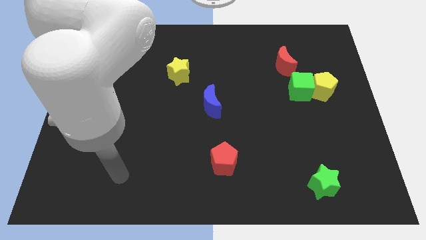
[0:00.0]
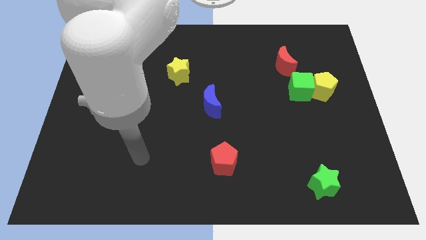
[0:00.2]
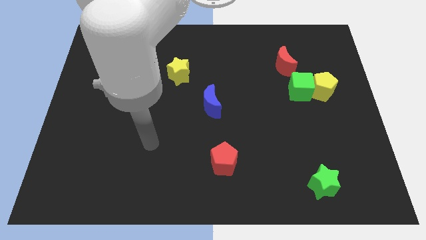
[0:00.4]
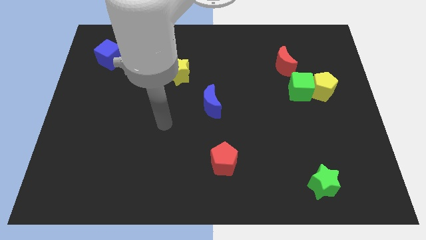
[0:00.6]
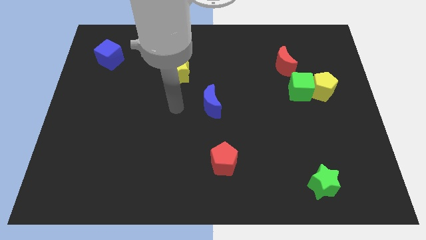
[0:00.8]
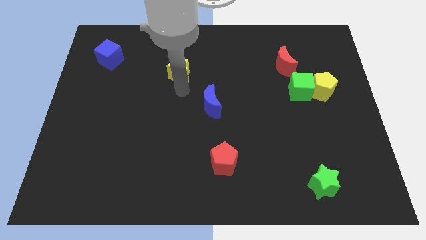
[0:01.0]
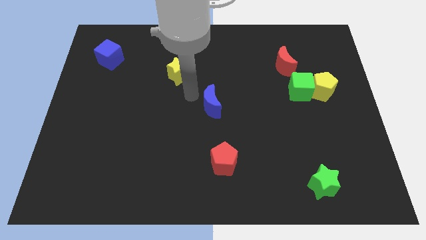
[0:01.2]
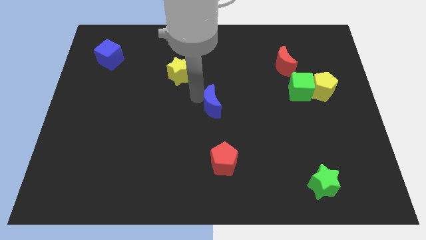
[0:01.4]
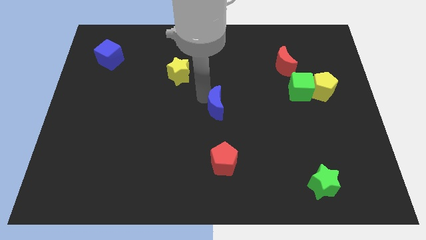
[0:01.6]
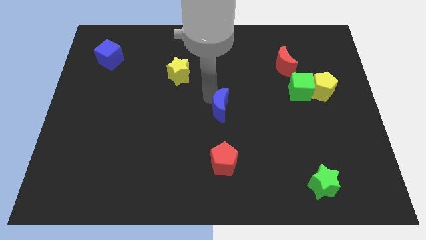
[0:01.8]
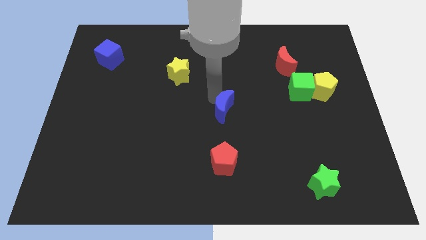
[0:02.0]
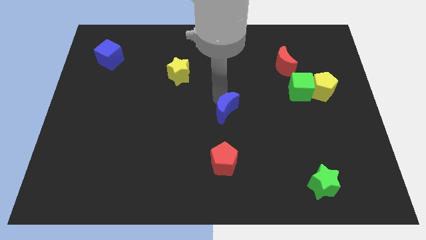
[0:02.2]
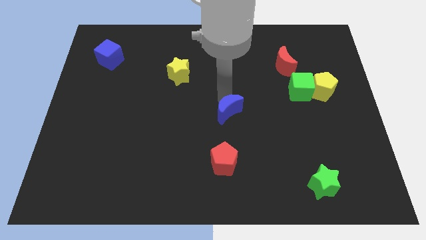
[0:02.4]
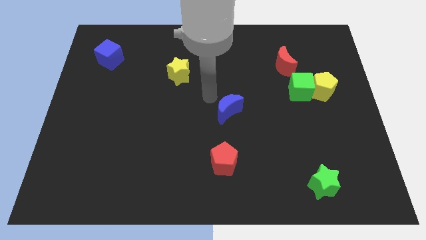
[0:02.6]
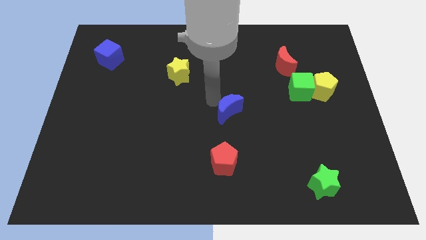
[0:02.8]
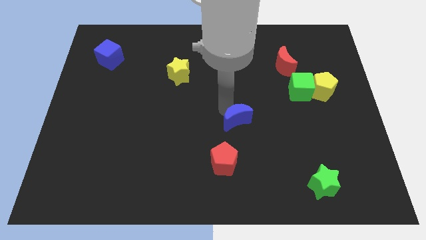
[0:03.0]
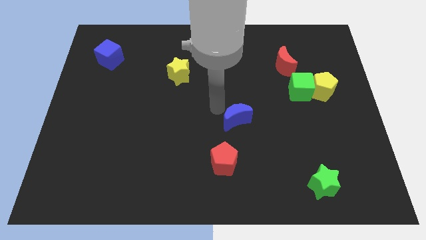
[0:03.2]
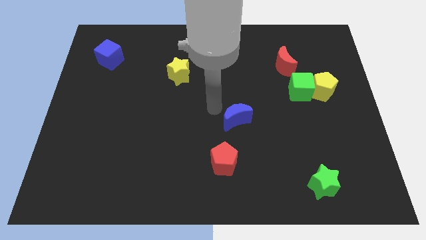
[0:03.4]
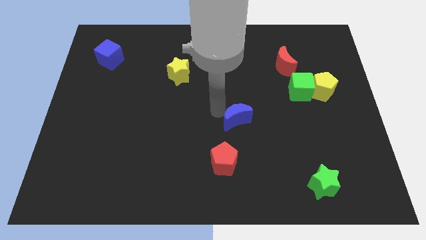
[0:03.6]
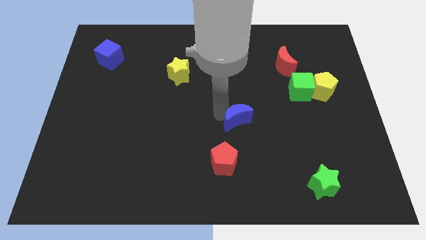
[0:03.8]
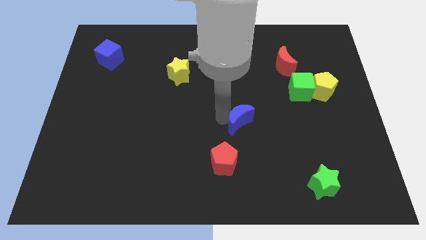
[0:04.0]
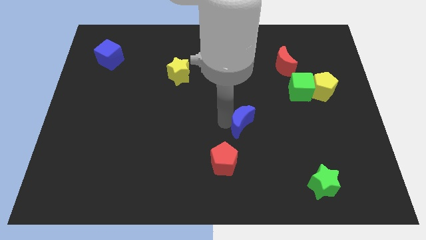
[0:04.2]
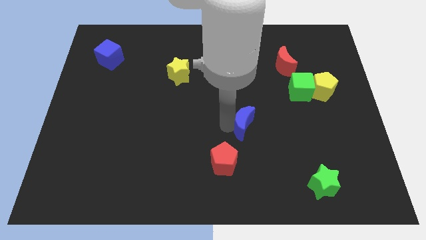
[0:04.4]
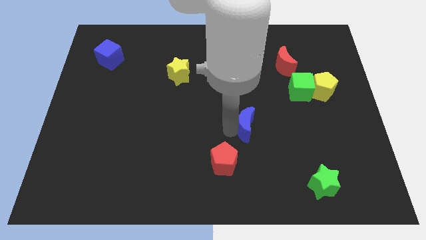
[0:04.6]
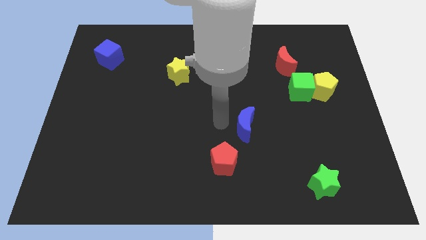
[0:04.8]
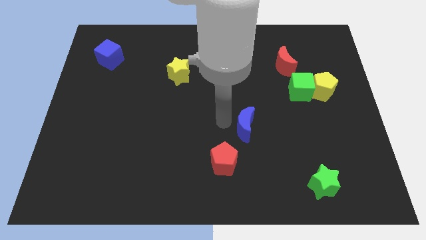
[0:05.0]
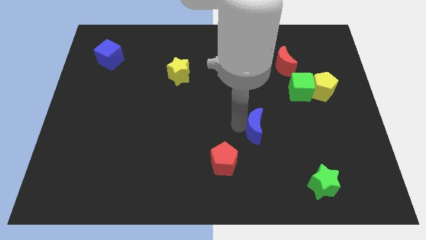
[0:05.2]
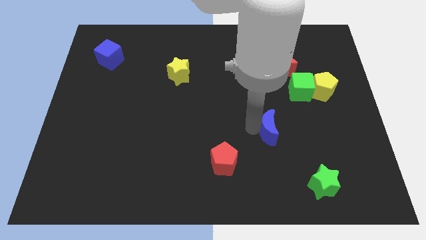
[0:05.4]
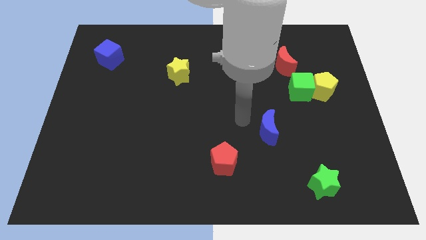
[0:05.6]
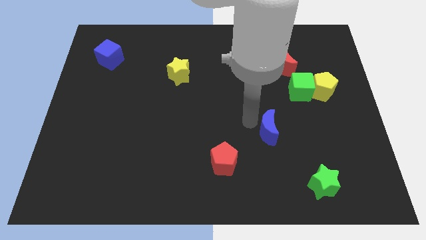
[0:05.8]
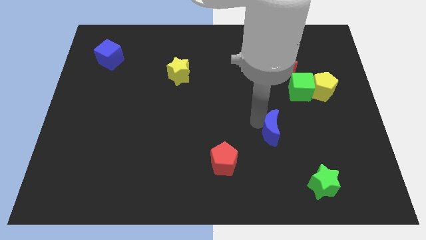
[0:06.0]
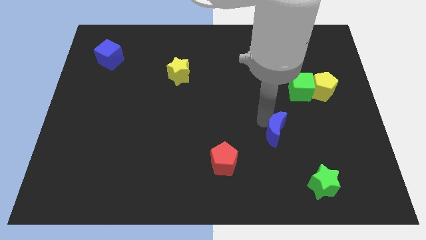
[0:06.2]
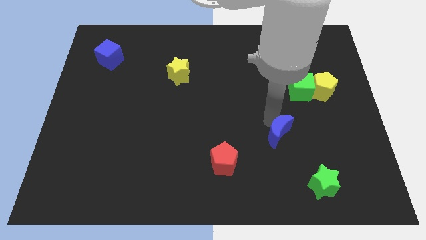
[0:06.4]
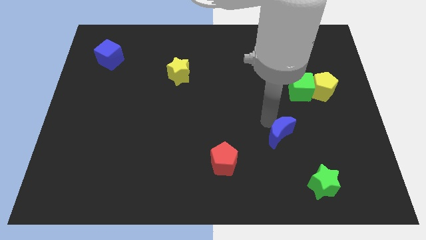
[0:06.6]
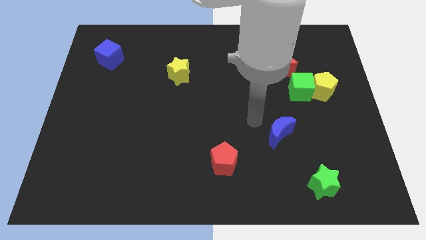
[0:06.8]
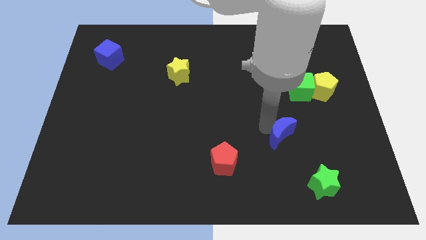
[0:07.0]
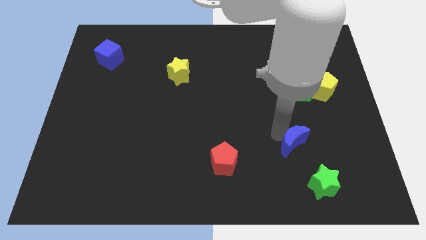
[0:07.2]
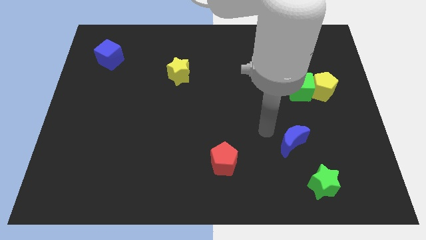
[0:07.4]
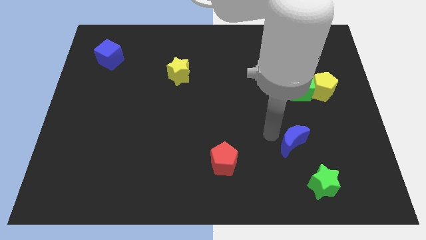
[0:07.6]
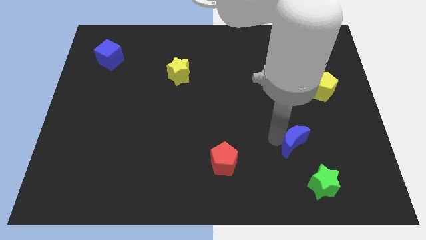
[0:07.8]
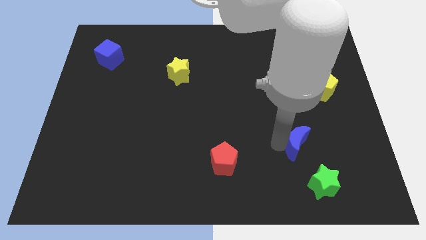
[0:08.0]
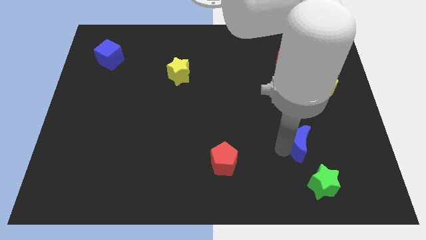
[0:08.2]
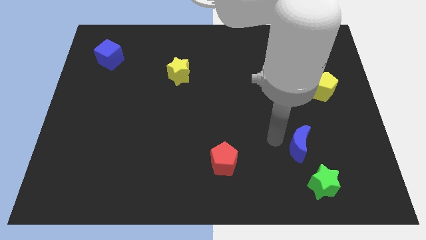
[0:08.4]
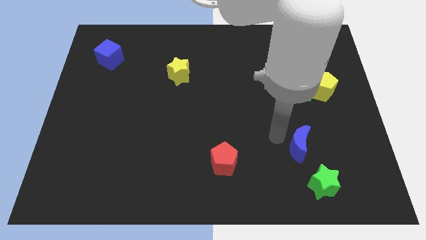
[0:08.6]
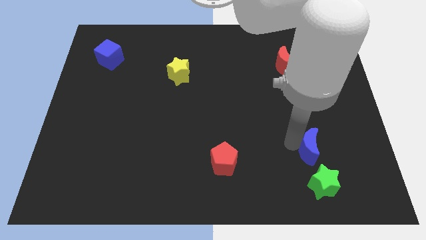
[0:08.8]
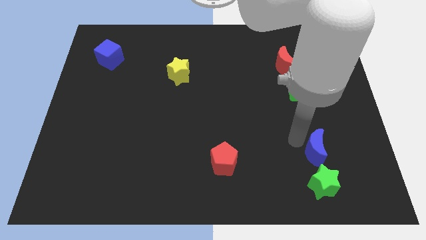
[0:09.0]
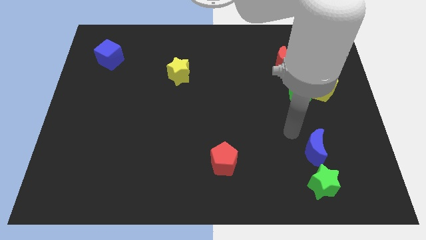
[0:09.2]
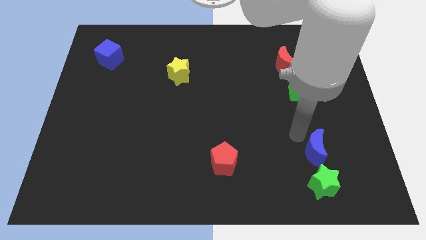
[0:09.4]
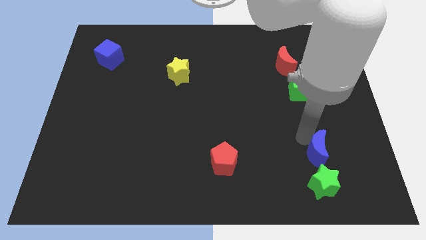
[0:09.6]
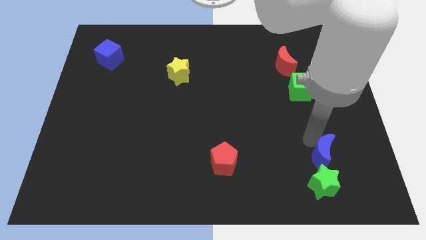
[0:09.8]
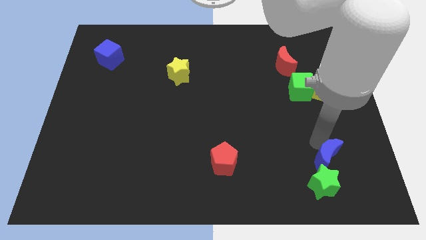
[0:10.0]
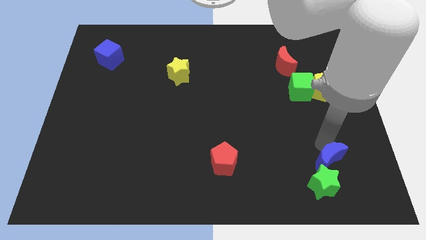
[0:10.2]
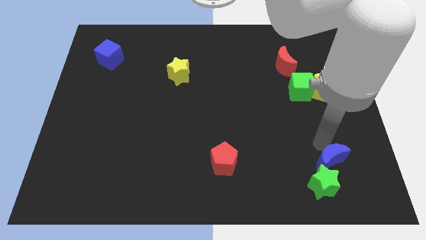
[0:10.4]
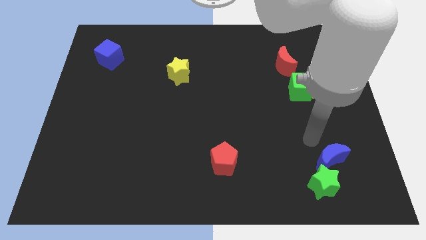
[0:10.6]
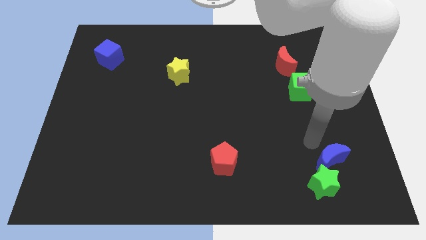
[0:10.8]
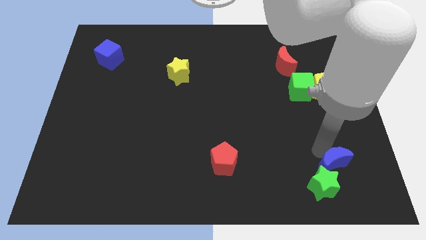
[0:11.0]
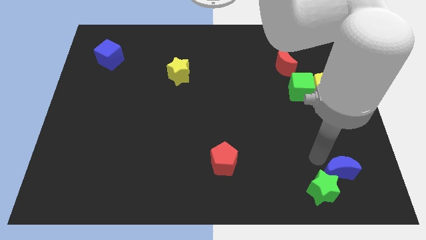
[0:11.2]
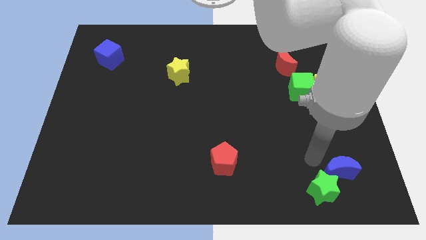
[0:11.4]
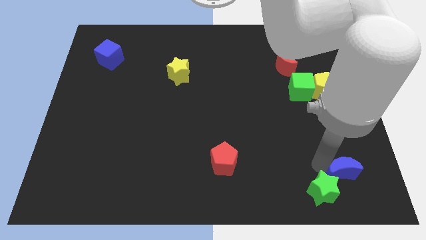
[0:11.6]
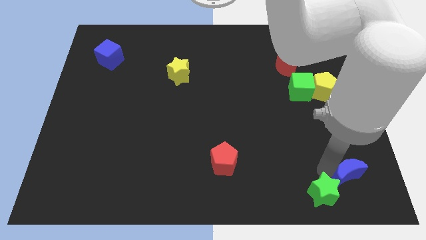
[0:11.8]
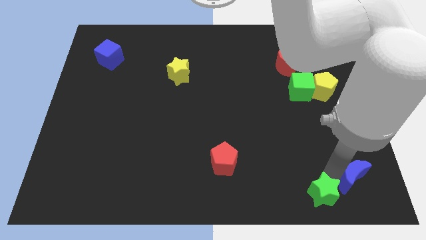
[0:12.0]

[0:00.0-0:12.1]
push the blue moon to the bottom right

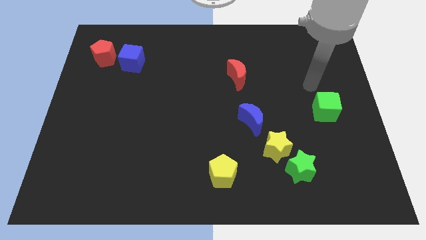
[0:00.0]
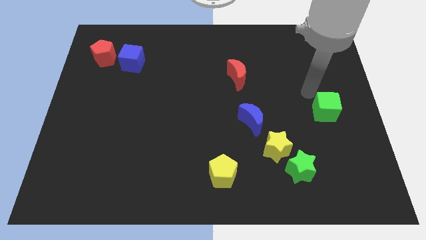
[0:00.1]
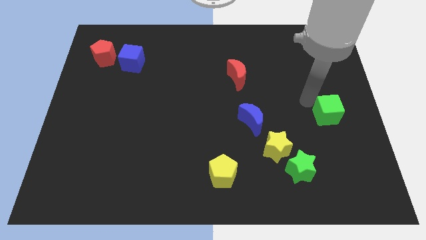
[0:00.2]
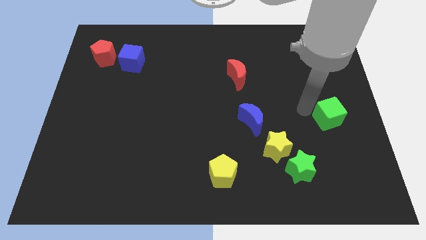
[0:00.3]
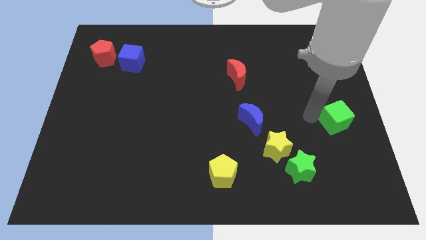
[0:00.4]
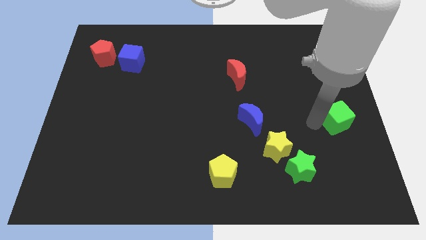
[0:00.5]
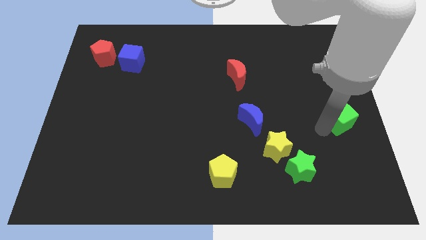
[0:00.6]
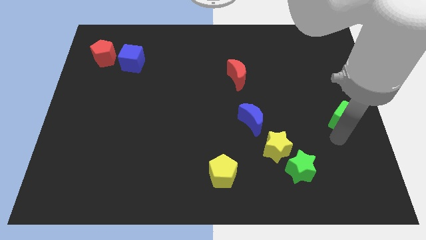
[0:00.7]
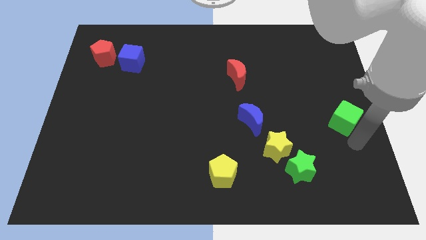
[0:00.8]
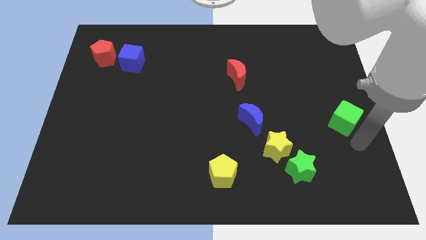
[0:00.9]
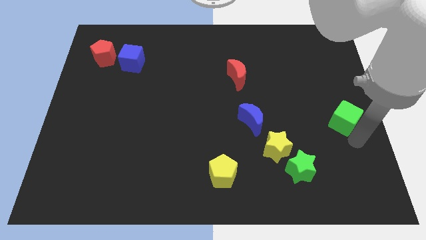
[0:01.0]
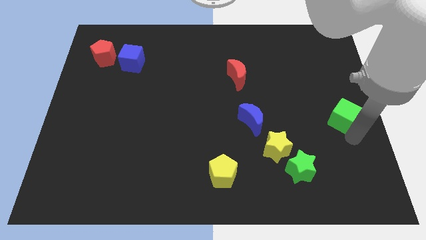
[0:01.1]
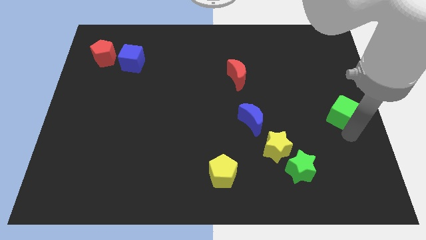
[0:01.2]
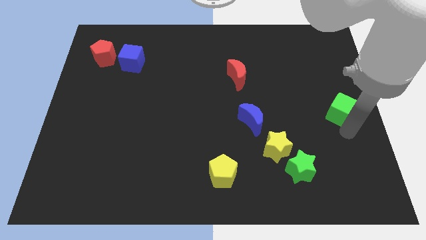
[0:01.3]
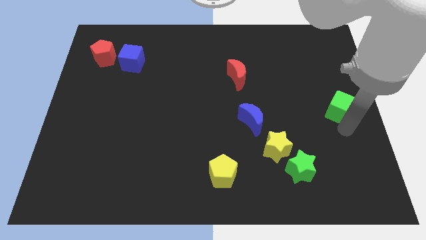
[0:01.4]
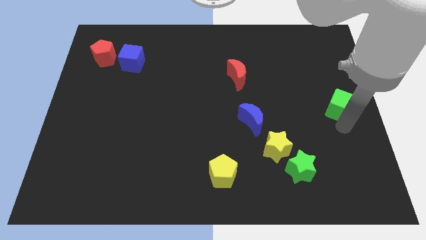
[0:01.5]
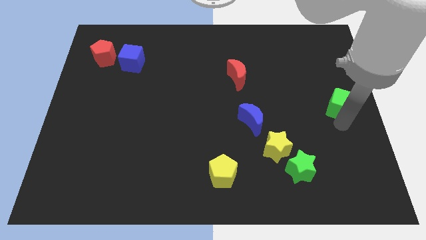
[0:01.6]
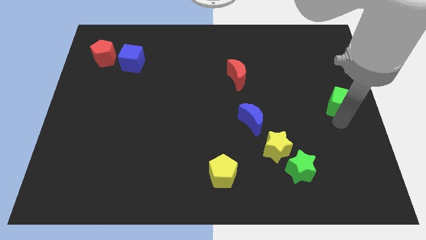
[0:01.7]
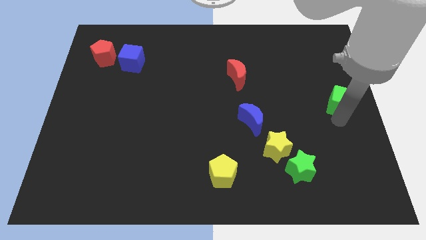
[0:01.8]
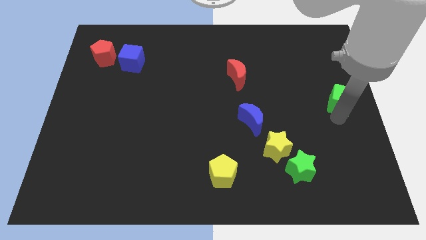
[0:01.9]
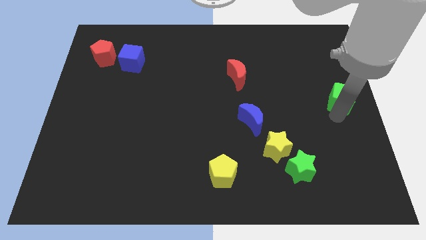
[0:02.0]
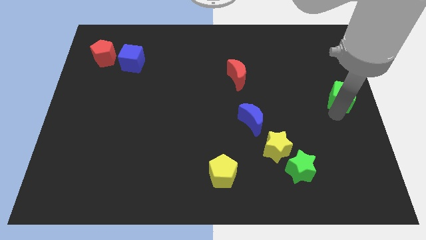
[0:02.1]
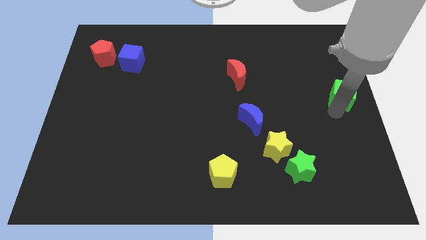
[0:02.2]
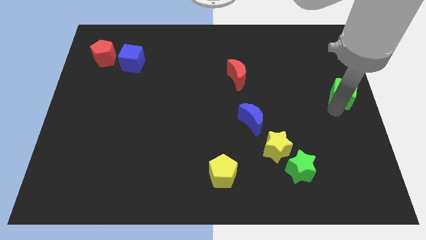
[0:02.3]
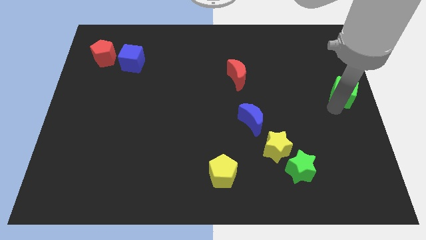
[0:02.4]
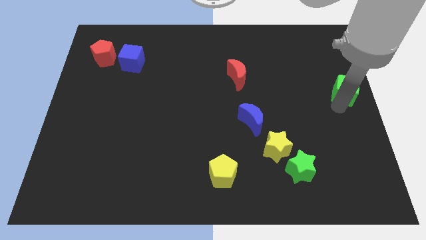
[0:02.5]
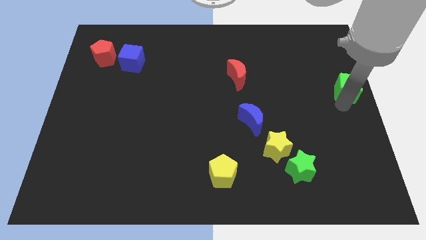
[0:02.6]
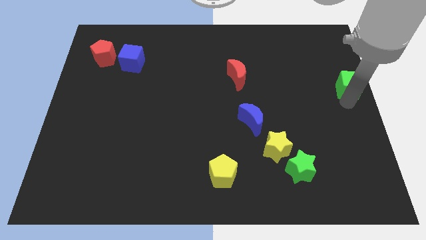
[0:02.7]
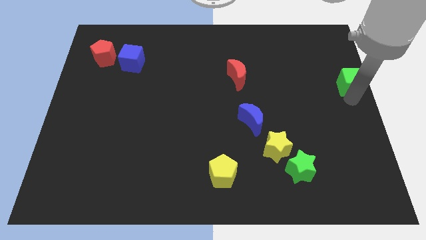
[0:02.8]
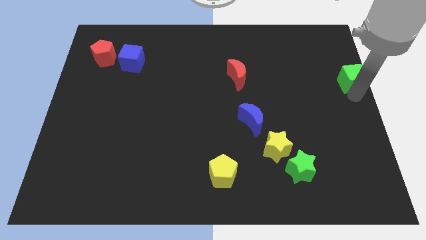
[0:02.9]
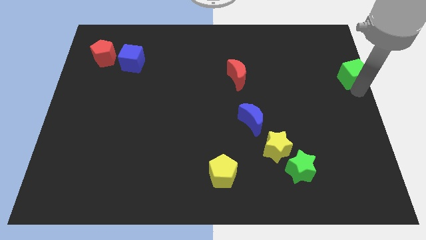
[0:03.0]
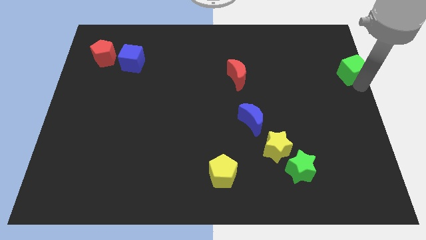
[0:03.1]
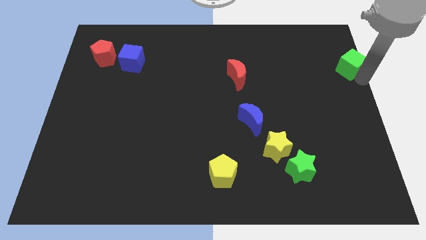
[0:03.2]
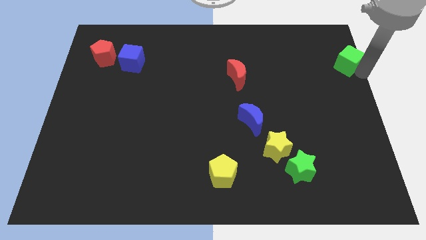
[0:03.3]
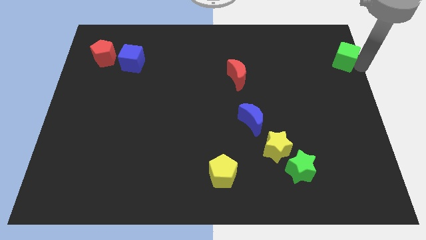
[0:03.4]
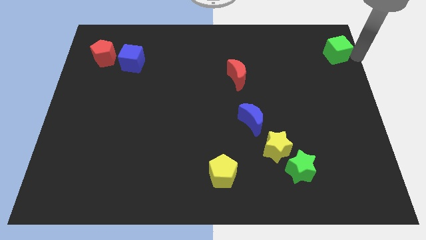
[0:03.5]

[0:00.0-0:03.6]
put the green cube to the top right
